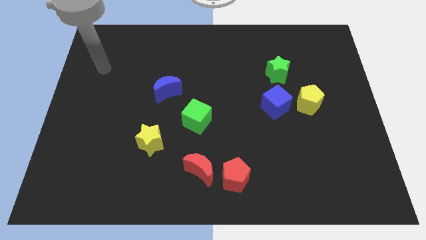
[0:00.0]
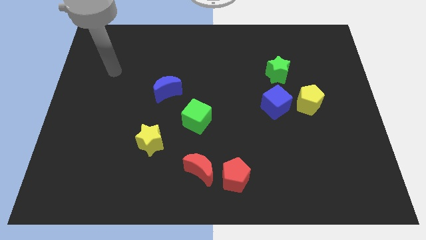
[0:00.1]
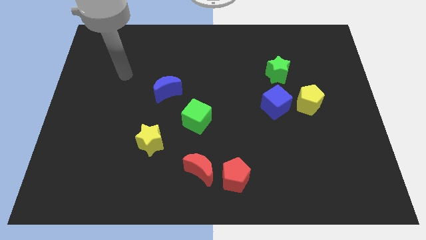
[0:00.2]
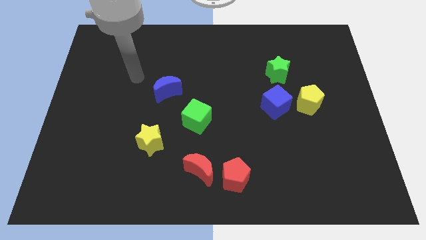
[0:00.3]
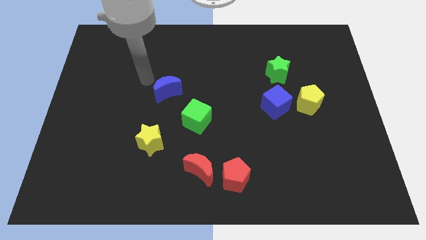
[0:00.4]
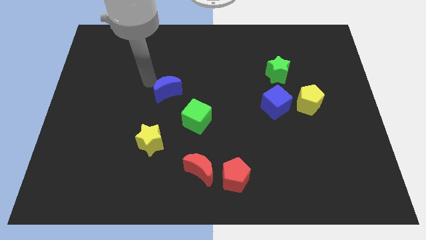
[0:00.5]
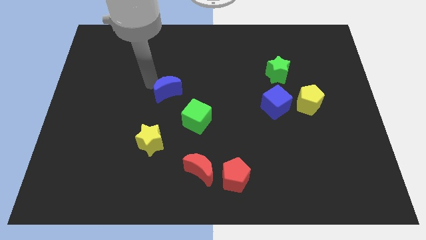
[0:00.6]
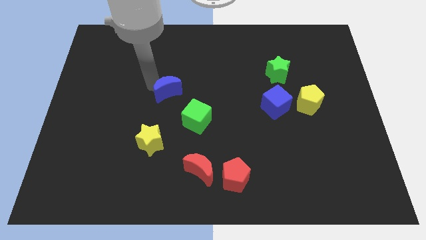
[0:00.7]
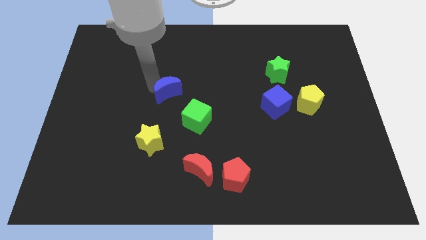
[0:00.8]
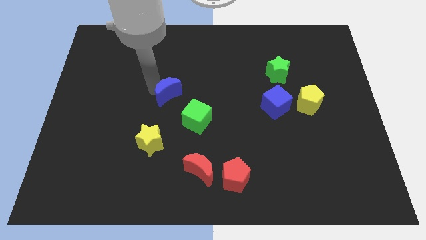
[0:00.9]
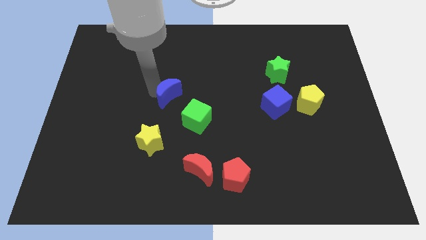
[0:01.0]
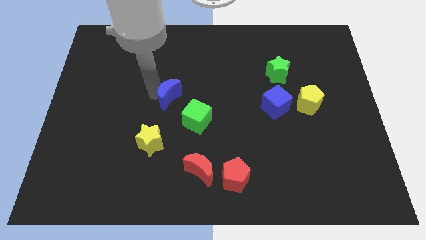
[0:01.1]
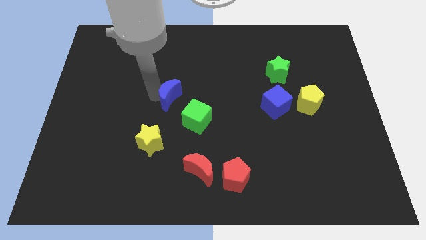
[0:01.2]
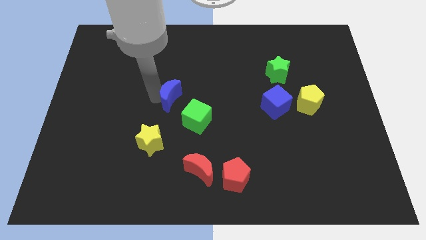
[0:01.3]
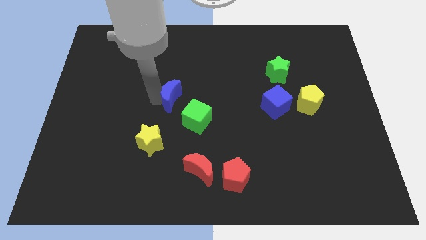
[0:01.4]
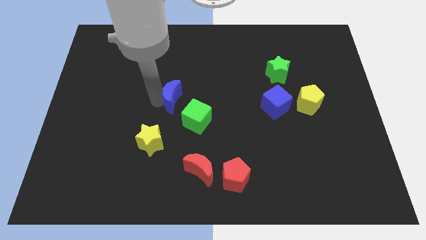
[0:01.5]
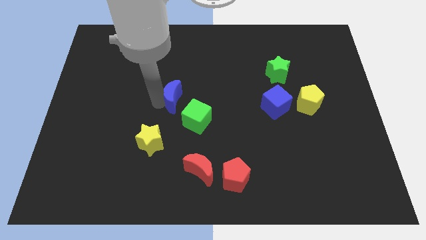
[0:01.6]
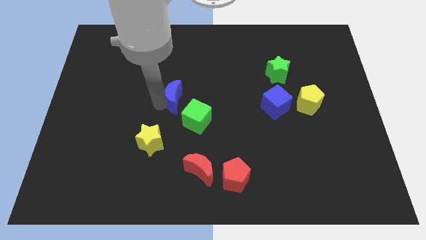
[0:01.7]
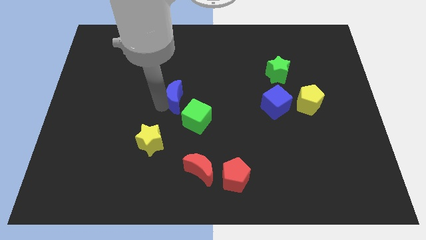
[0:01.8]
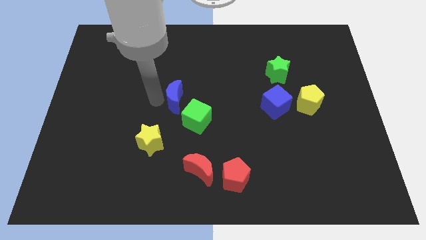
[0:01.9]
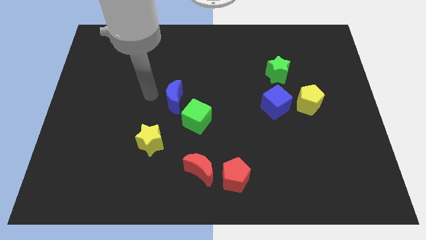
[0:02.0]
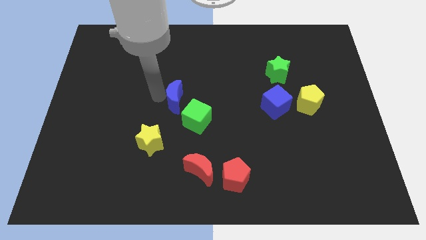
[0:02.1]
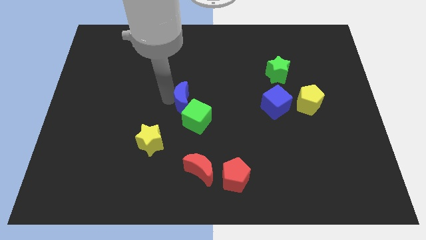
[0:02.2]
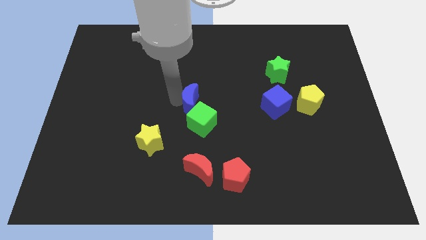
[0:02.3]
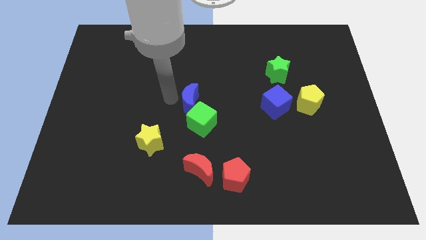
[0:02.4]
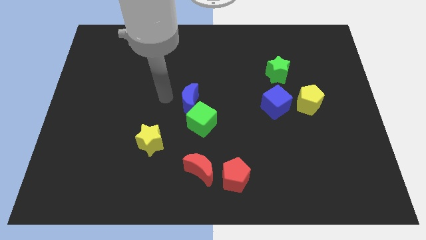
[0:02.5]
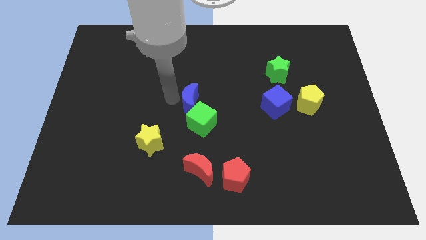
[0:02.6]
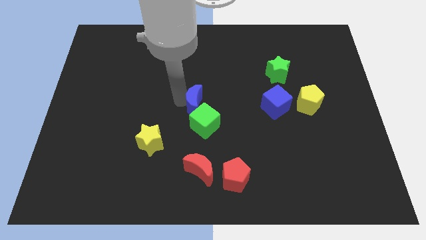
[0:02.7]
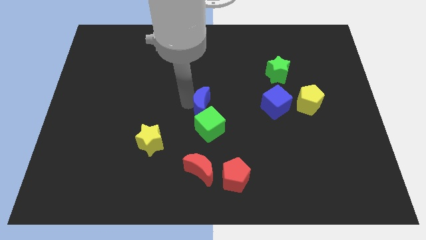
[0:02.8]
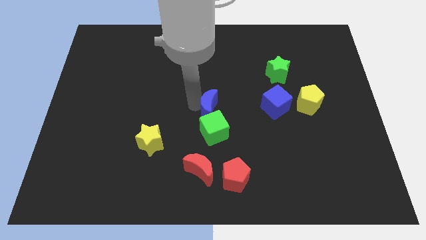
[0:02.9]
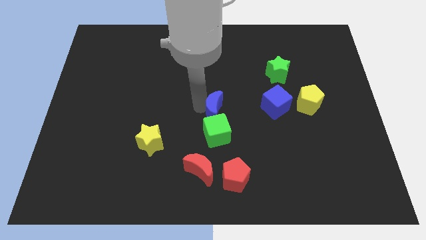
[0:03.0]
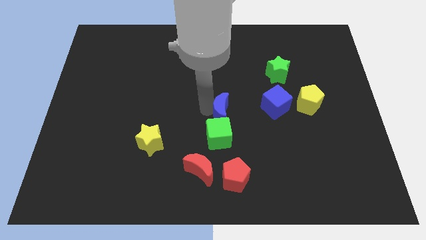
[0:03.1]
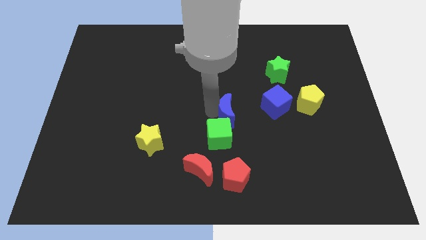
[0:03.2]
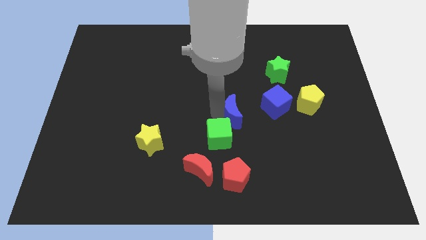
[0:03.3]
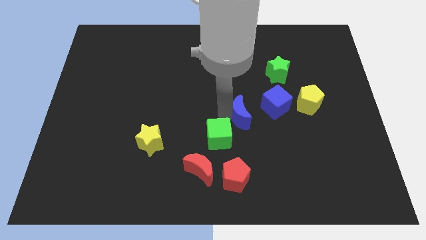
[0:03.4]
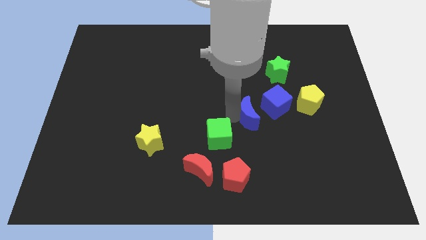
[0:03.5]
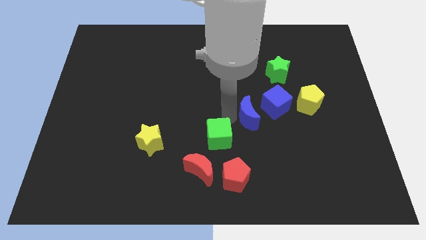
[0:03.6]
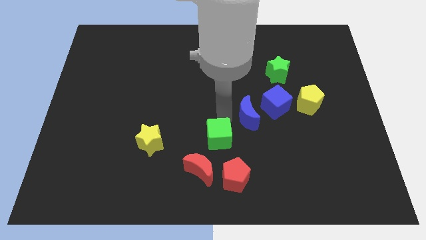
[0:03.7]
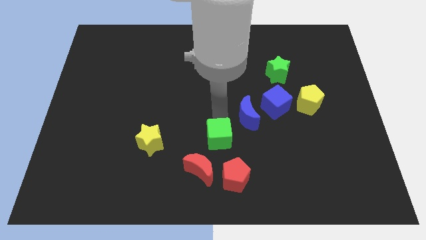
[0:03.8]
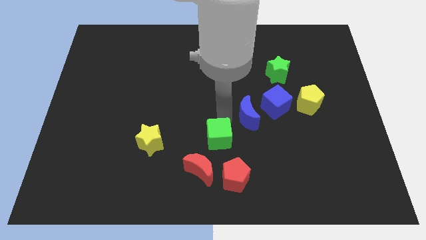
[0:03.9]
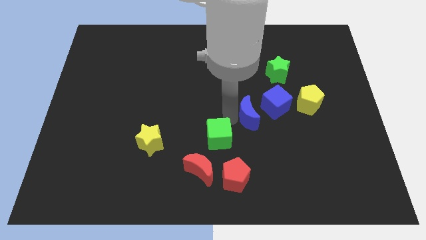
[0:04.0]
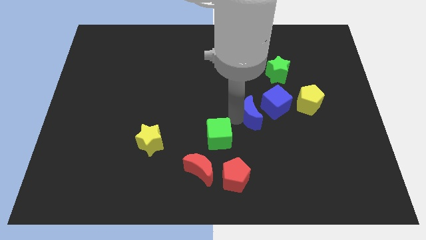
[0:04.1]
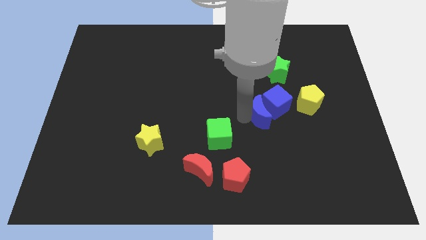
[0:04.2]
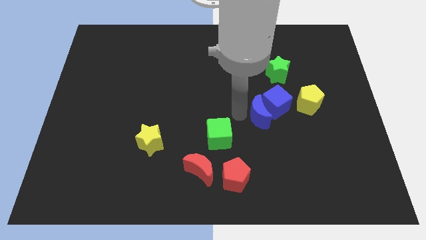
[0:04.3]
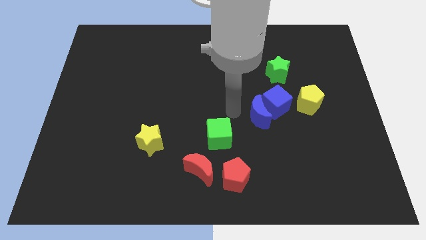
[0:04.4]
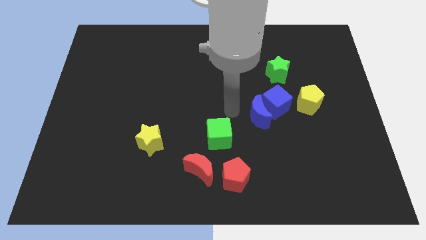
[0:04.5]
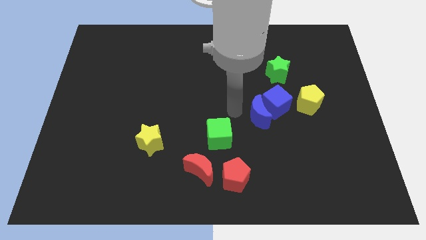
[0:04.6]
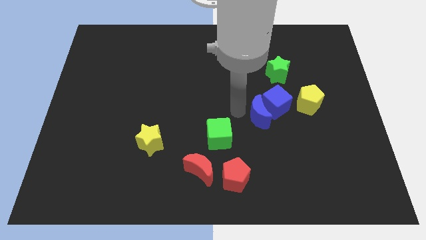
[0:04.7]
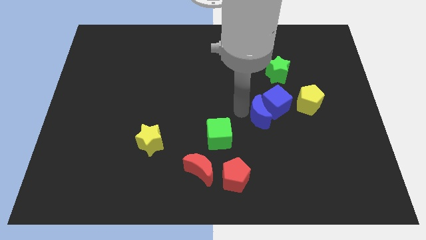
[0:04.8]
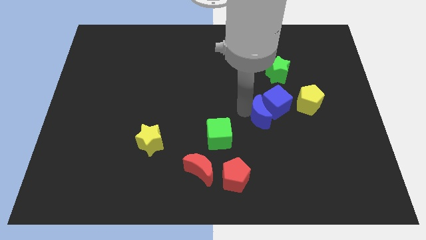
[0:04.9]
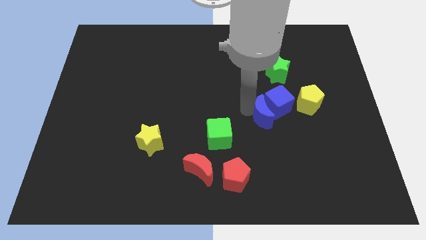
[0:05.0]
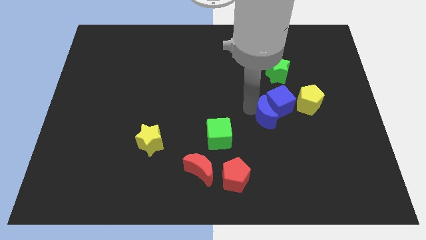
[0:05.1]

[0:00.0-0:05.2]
slide the blue moon below the green star

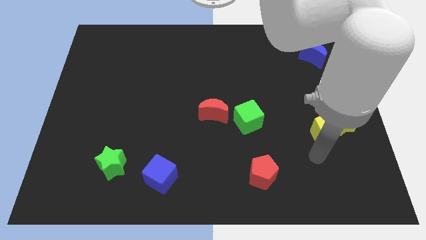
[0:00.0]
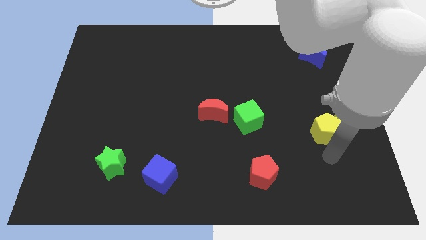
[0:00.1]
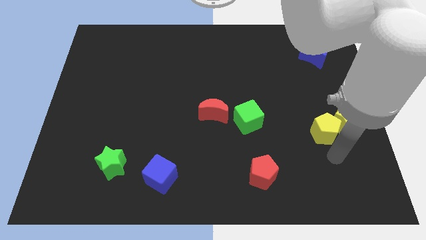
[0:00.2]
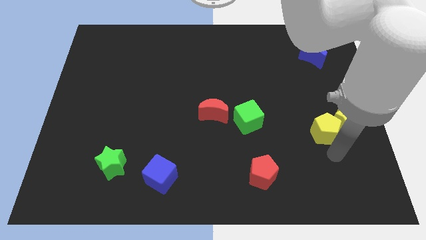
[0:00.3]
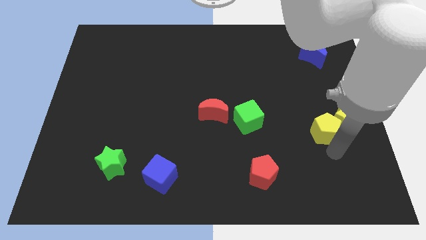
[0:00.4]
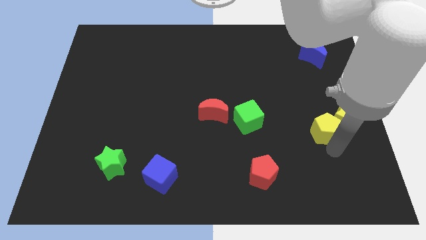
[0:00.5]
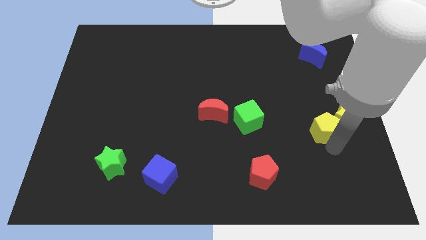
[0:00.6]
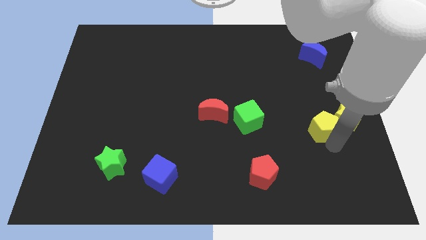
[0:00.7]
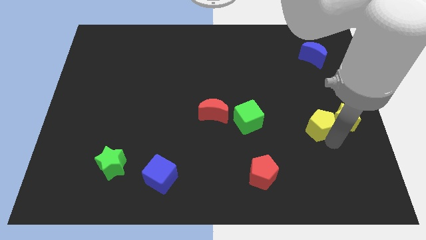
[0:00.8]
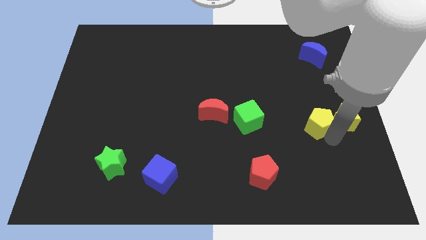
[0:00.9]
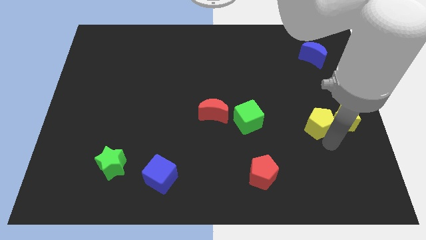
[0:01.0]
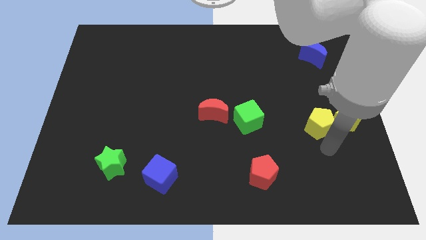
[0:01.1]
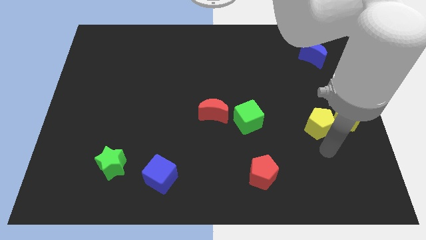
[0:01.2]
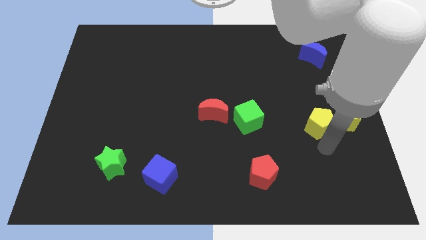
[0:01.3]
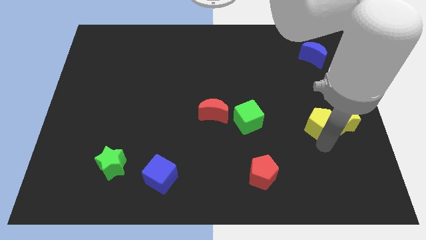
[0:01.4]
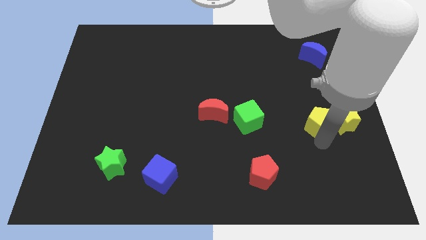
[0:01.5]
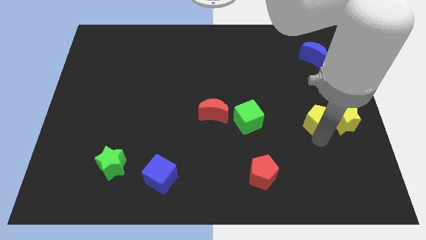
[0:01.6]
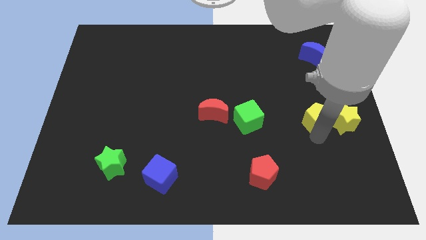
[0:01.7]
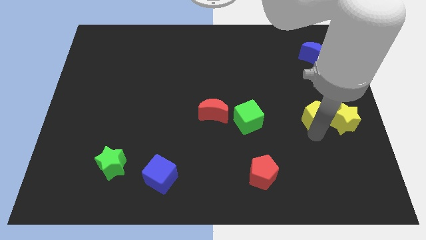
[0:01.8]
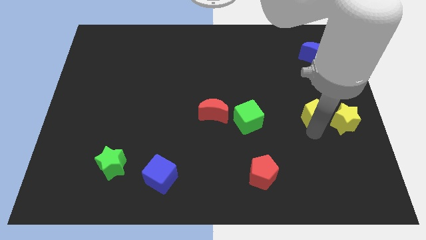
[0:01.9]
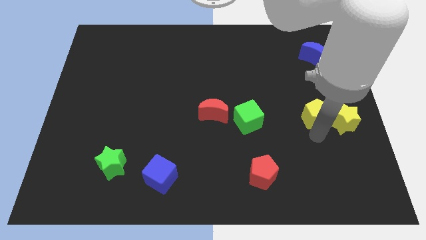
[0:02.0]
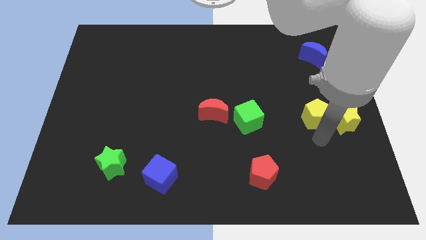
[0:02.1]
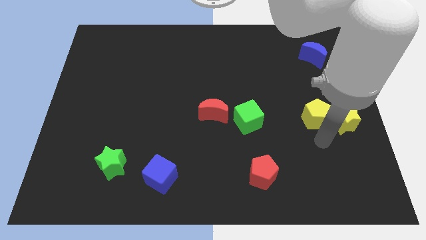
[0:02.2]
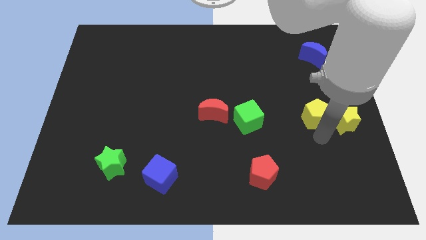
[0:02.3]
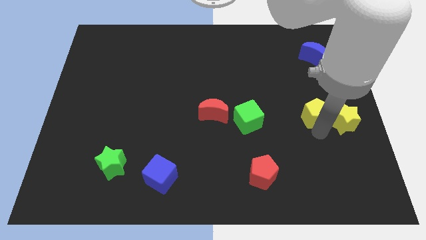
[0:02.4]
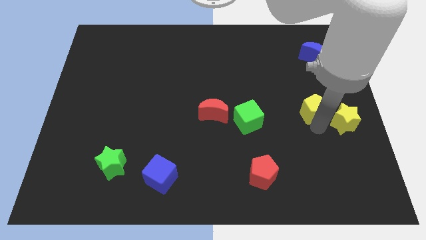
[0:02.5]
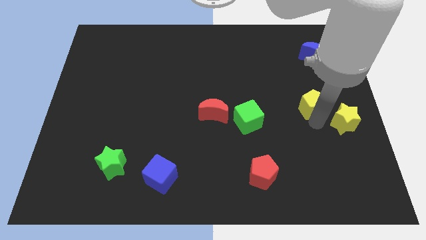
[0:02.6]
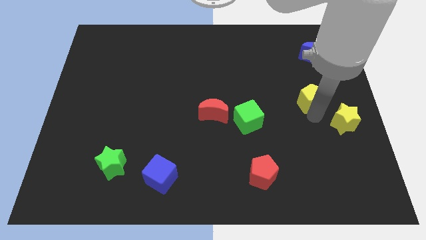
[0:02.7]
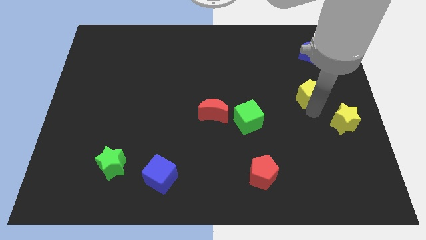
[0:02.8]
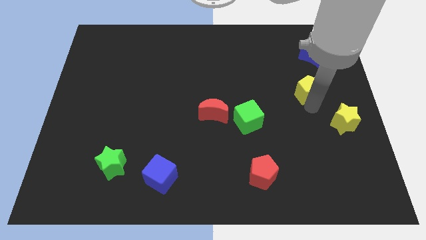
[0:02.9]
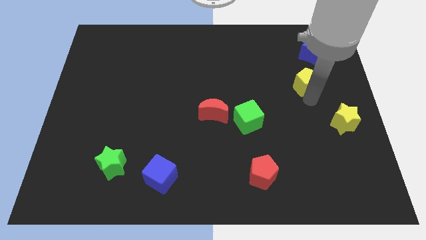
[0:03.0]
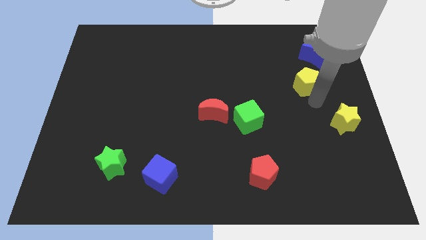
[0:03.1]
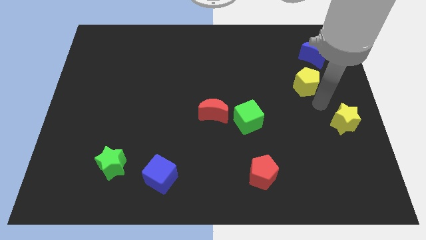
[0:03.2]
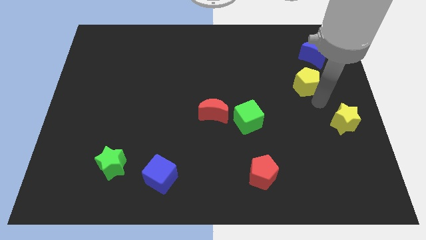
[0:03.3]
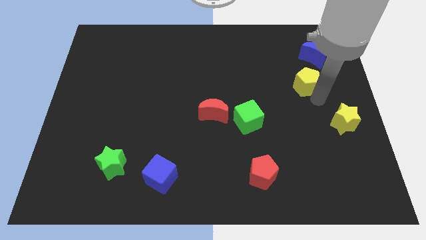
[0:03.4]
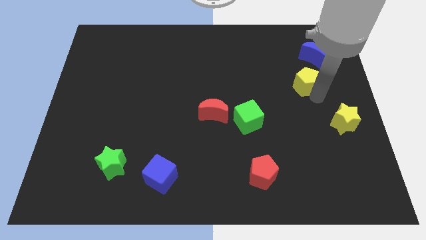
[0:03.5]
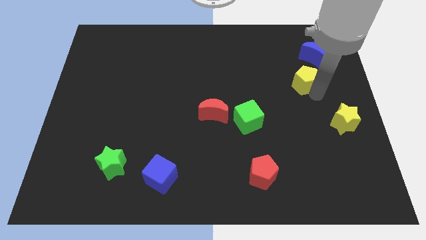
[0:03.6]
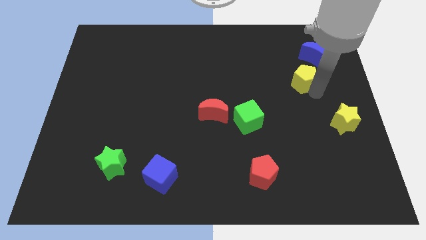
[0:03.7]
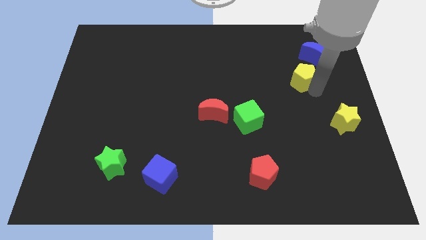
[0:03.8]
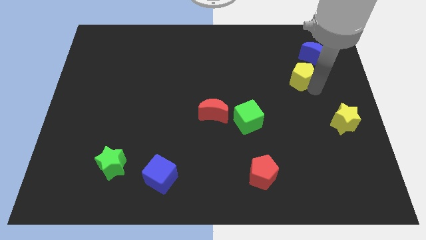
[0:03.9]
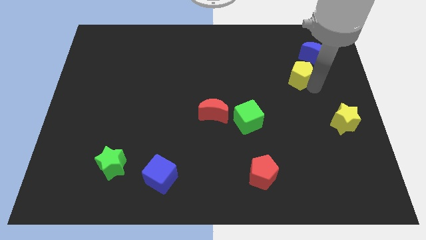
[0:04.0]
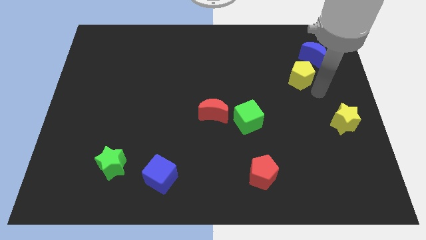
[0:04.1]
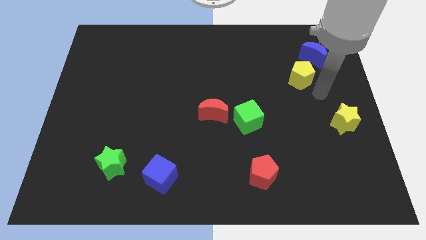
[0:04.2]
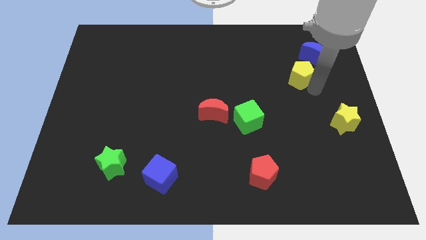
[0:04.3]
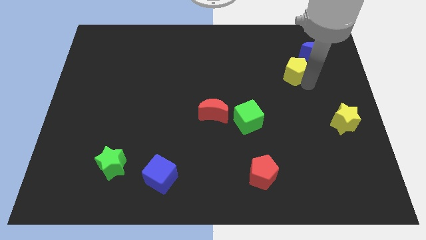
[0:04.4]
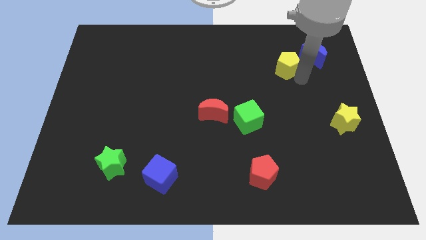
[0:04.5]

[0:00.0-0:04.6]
put the yellow pentagon just left of the blue moon
